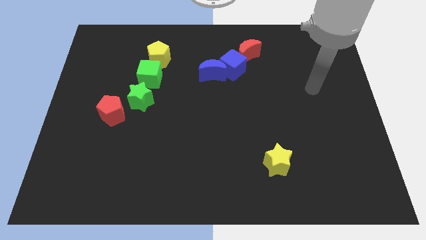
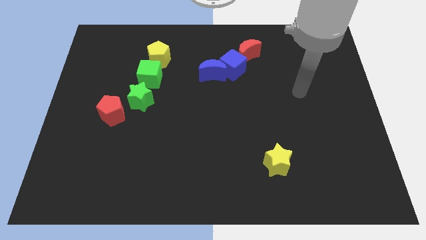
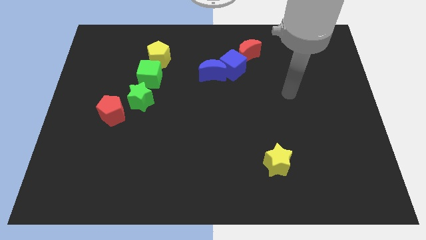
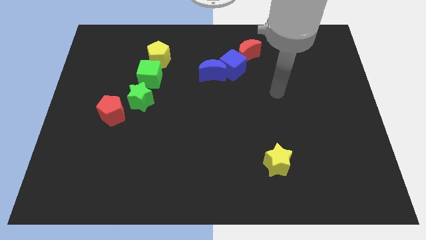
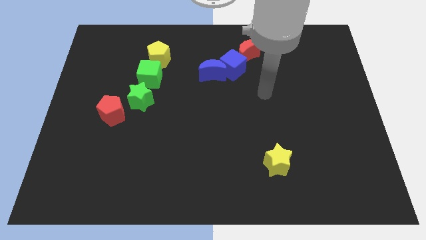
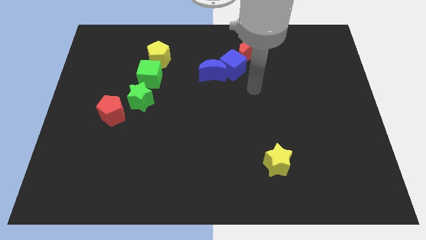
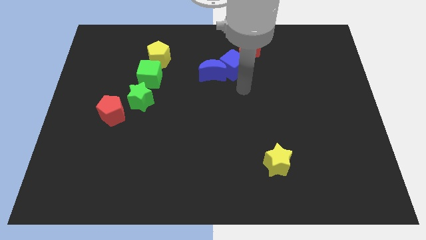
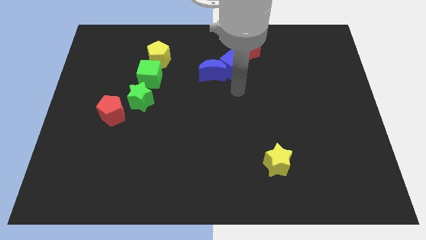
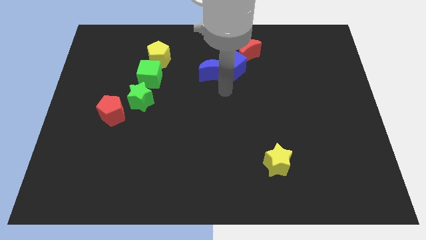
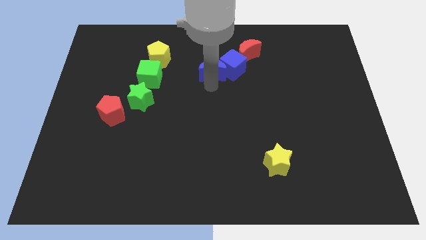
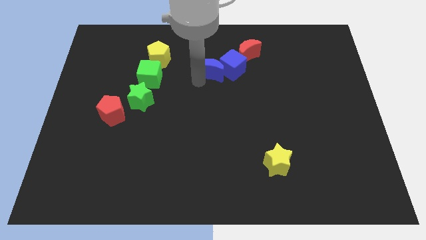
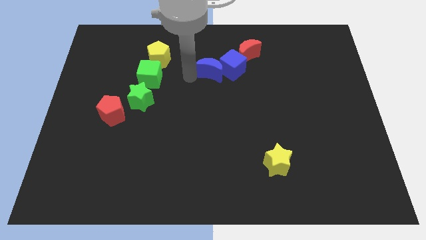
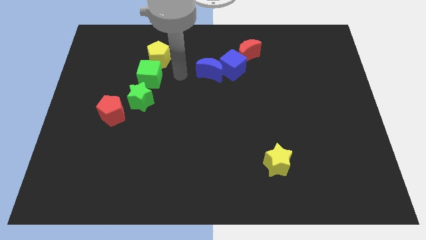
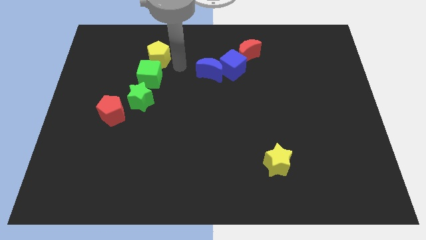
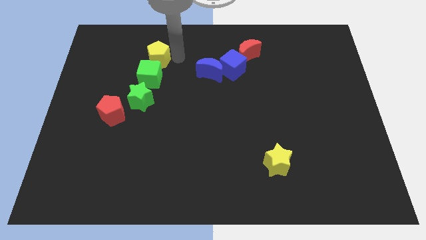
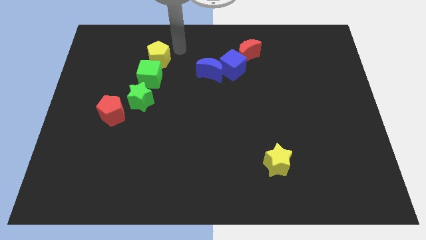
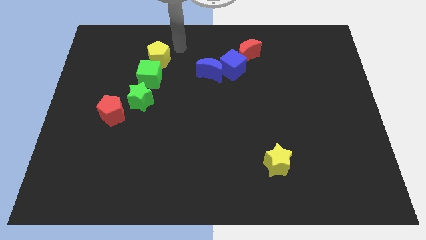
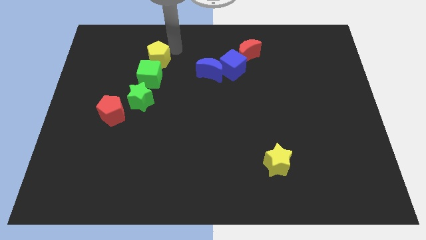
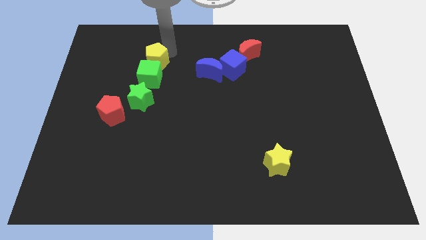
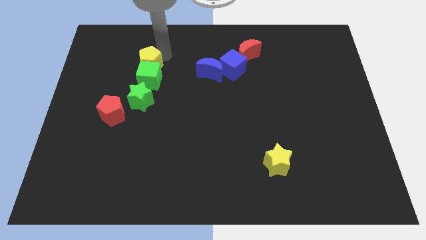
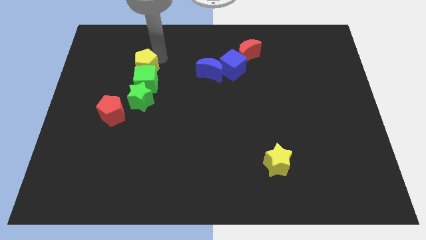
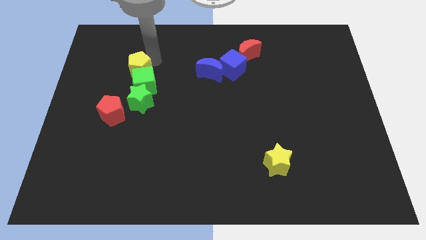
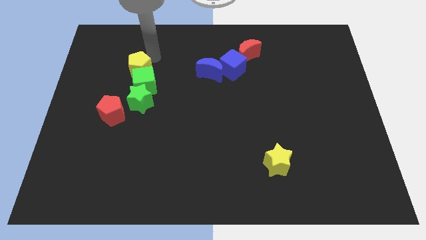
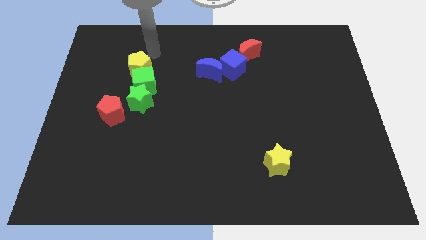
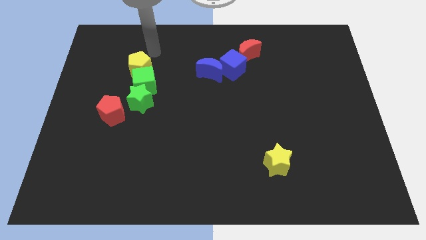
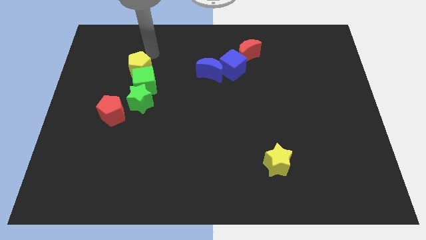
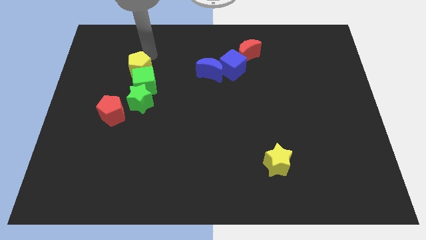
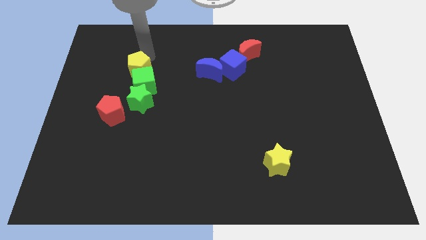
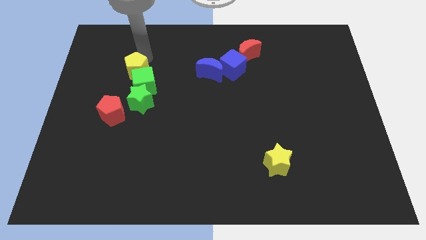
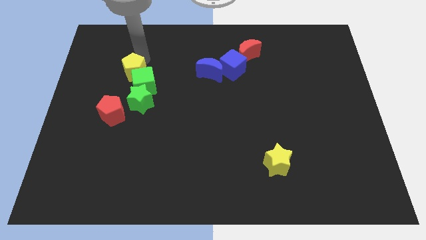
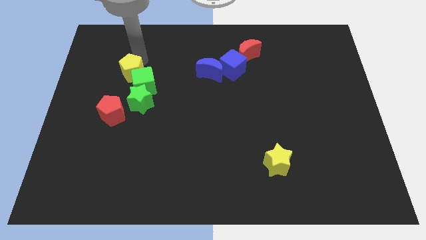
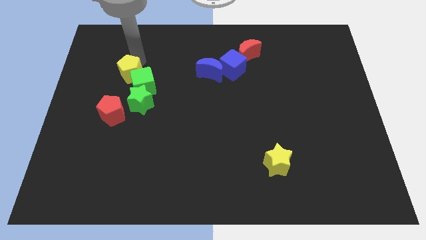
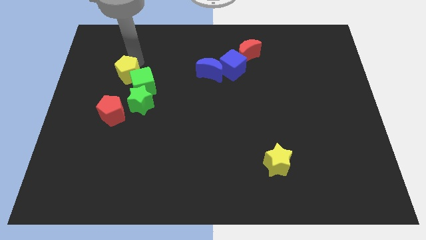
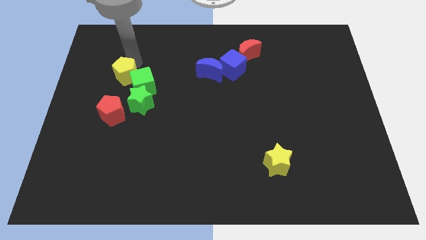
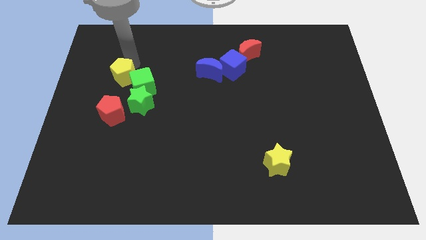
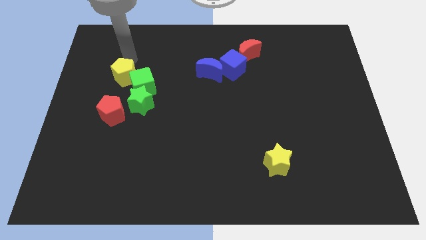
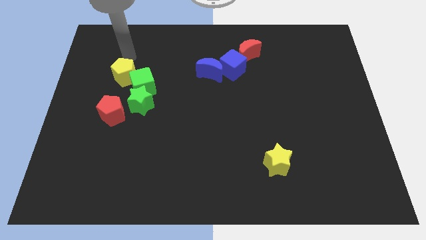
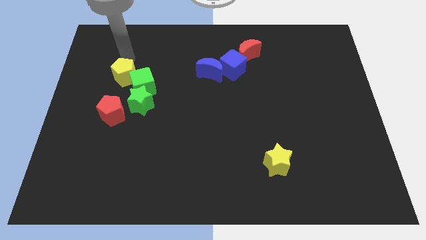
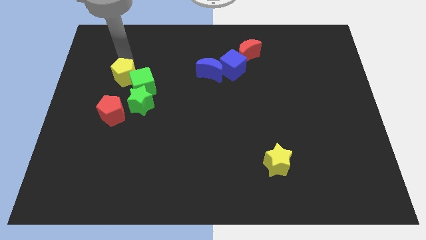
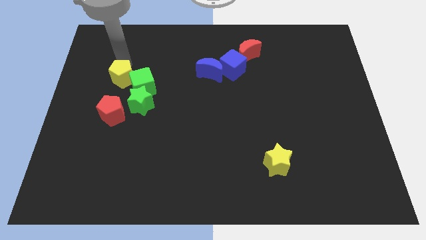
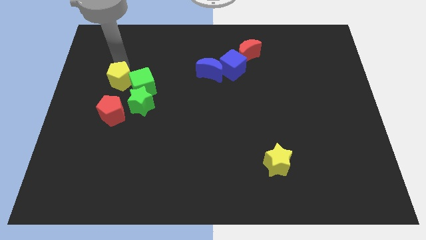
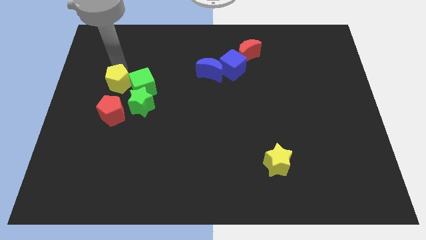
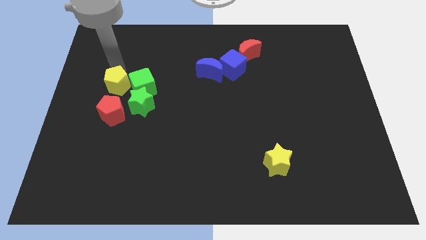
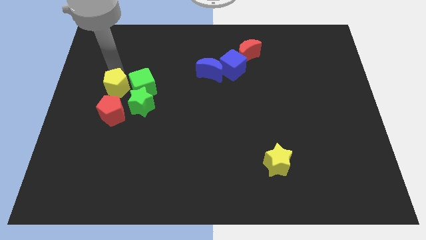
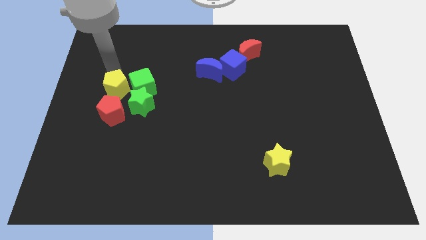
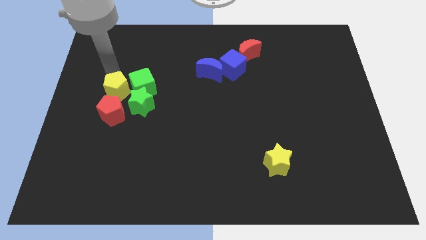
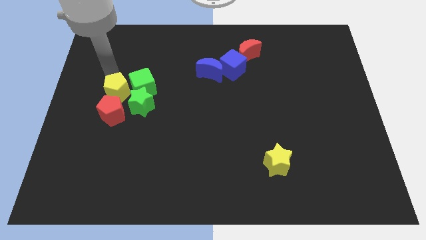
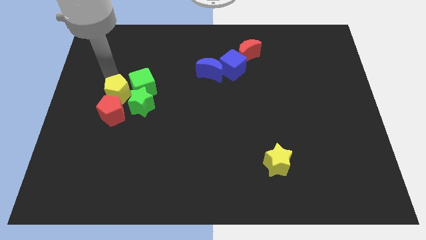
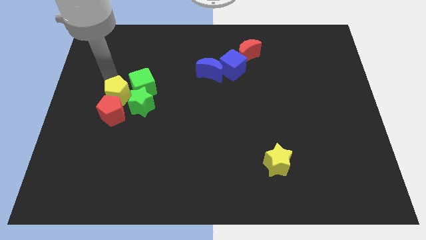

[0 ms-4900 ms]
slide the yellow pentagon close to the red pentagon

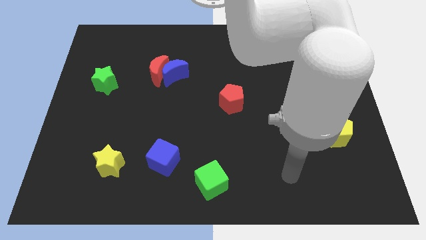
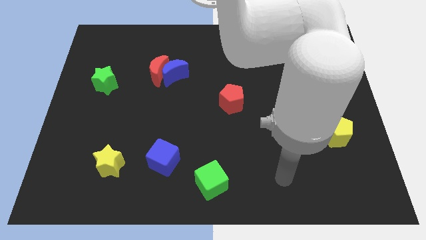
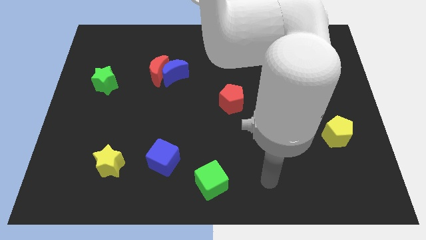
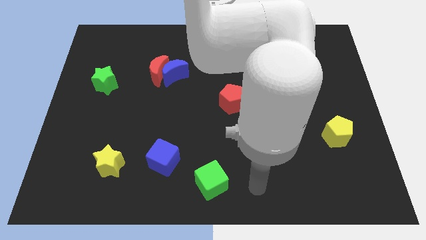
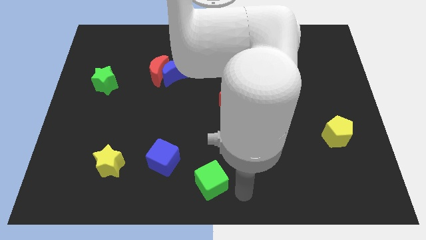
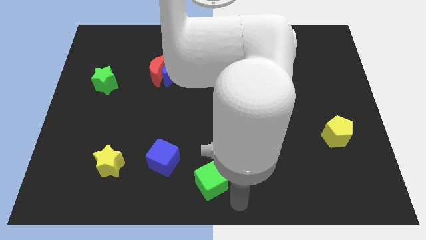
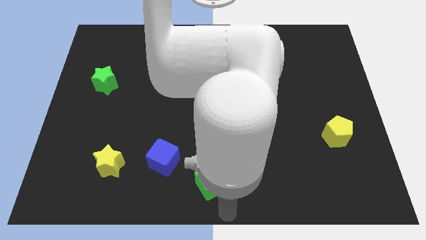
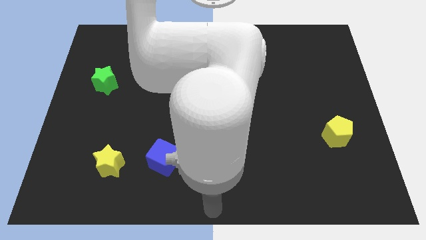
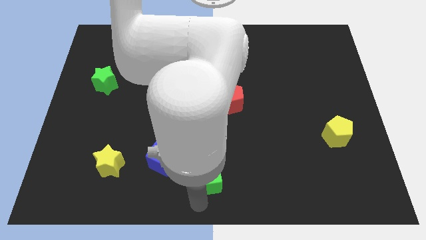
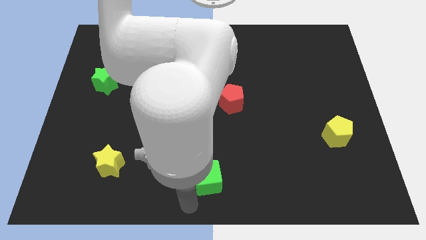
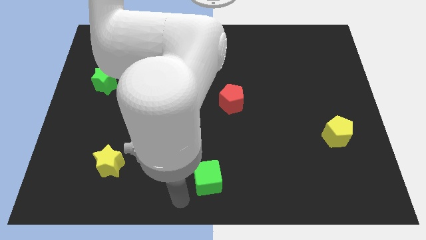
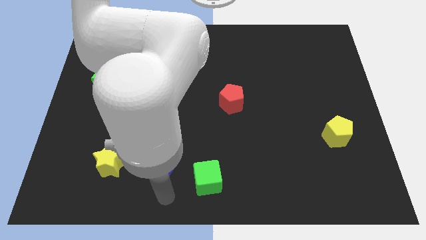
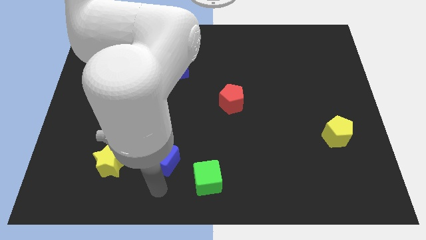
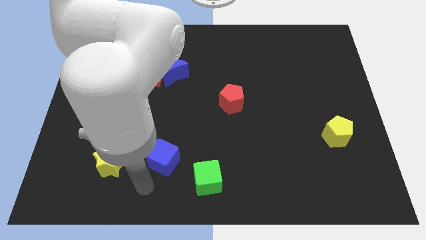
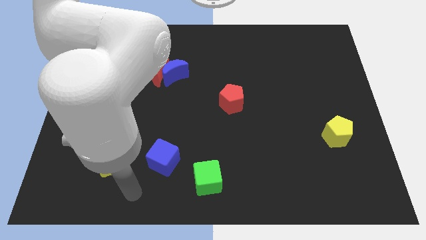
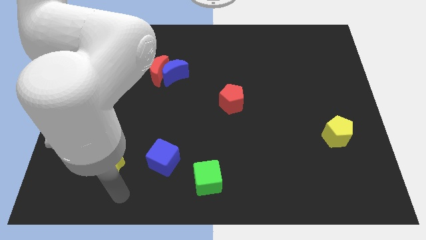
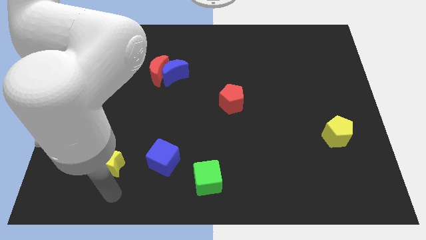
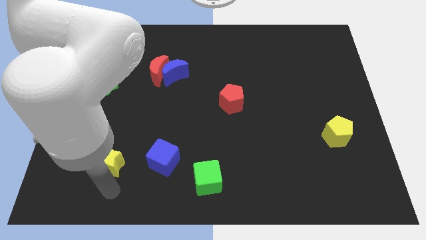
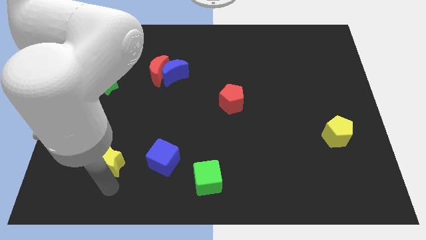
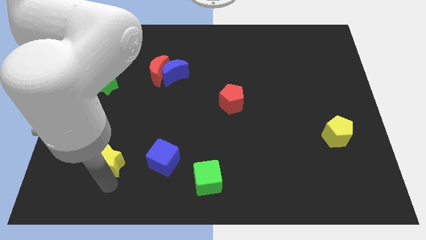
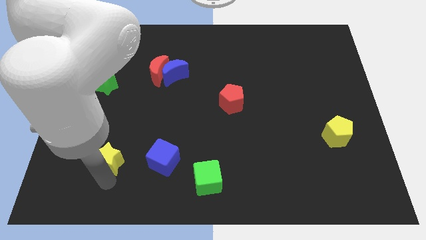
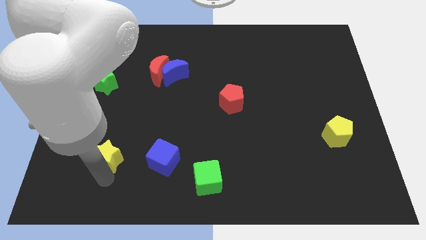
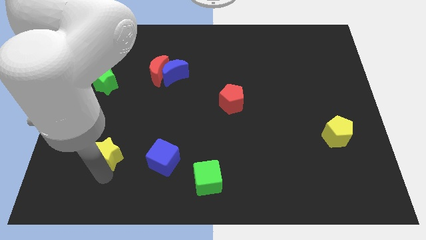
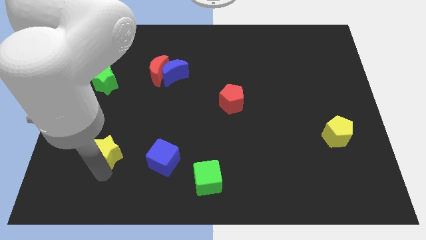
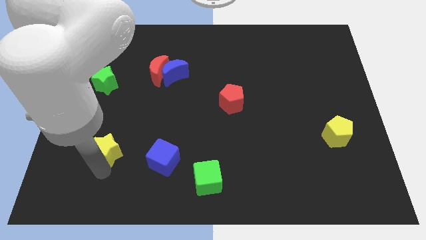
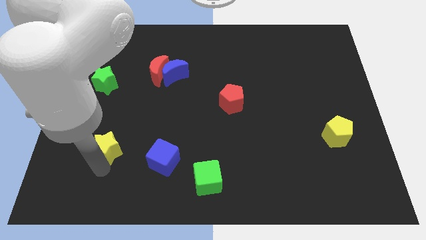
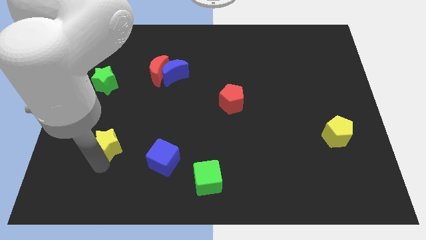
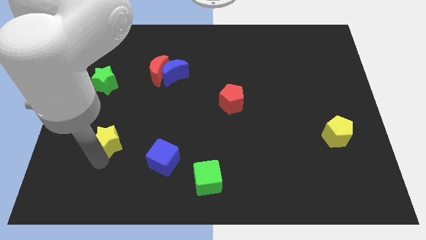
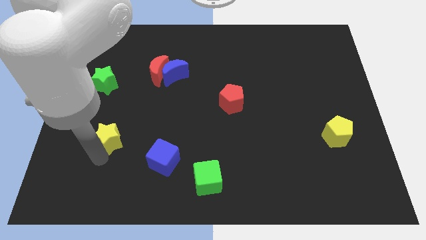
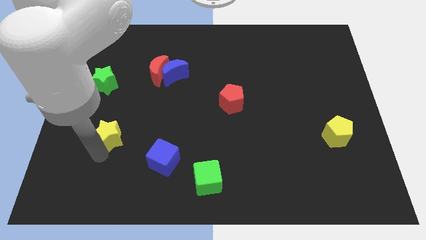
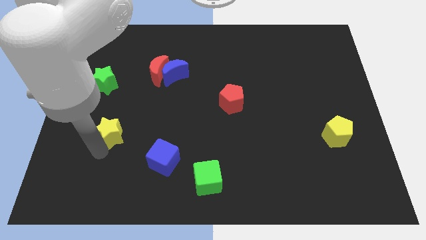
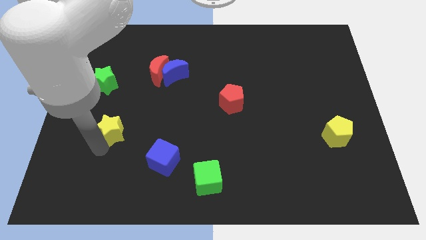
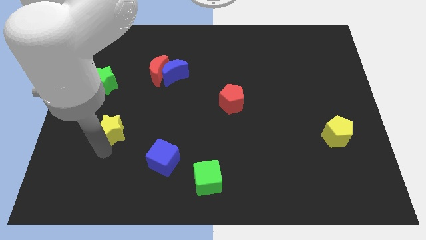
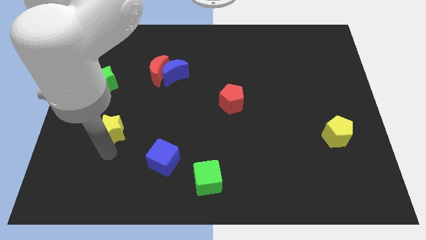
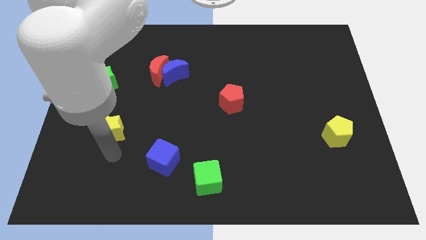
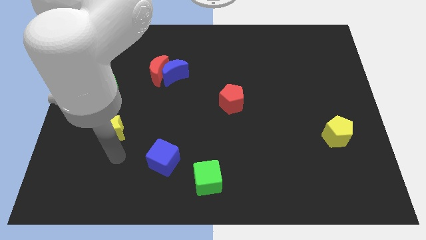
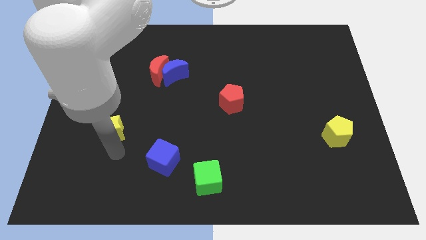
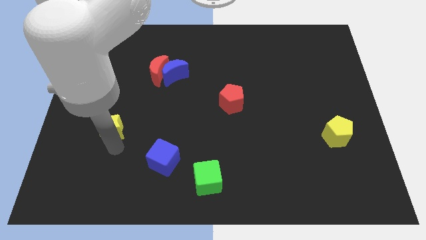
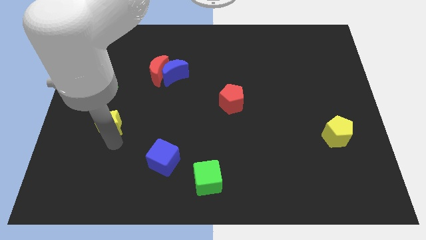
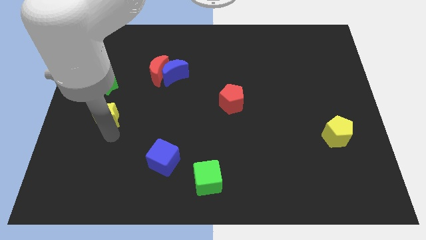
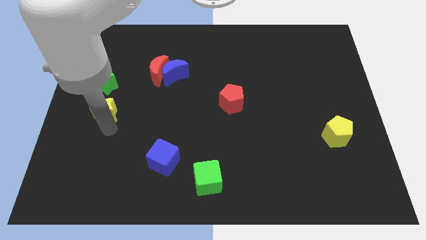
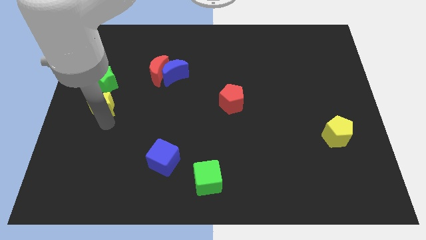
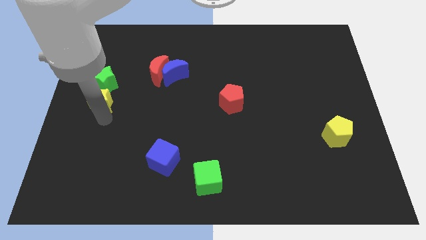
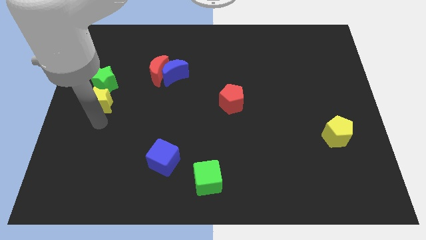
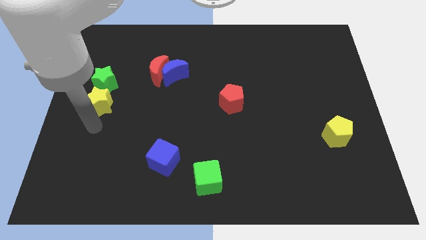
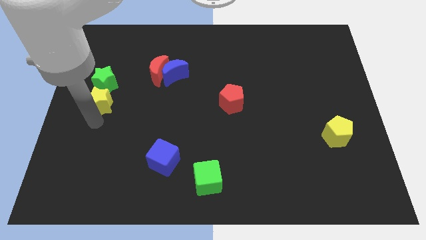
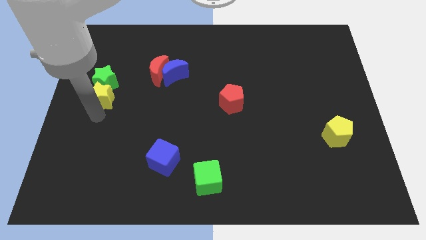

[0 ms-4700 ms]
slide the yellow star close to the green star
